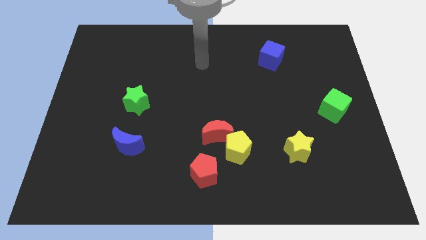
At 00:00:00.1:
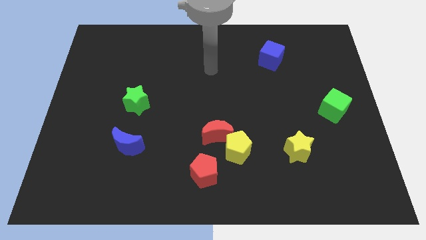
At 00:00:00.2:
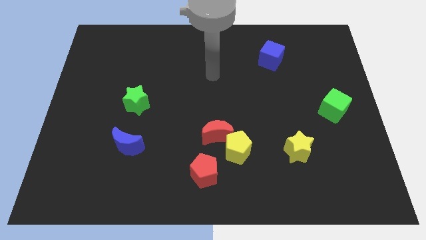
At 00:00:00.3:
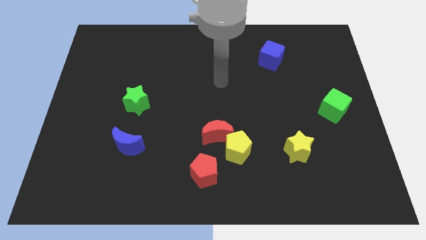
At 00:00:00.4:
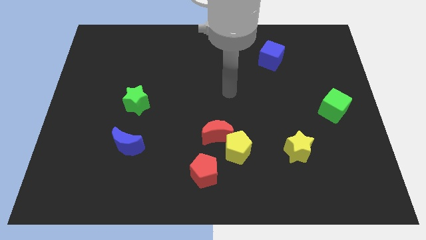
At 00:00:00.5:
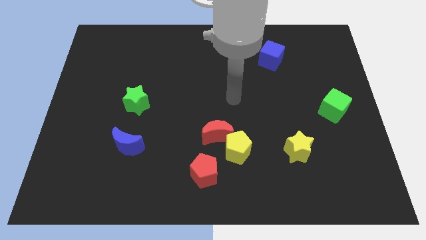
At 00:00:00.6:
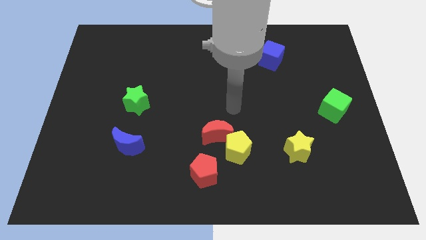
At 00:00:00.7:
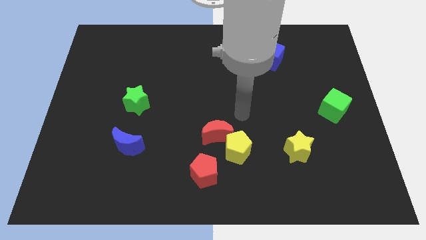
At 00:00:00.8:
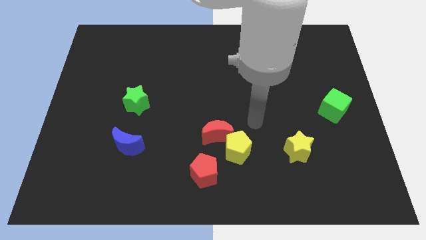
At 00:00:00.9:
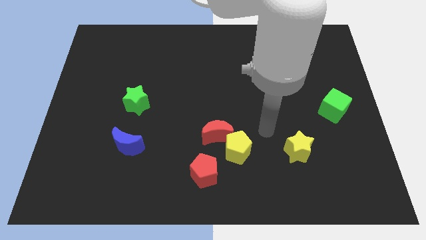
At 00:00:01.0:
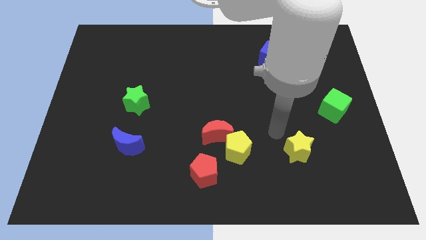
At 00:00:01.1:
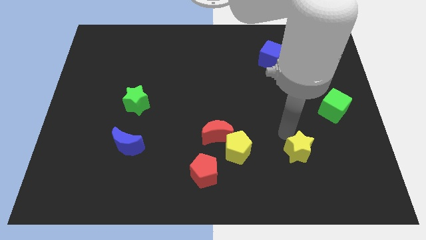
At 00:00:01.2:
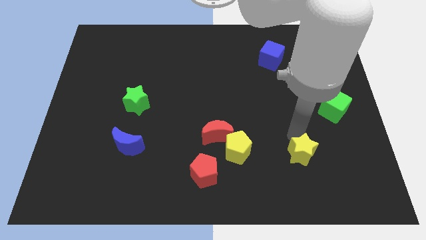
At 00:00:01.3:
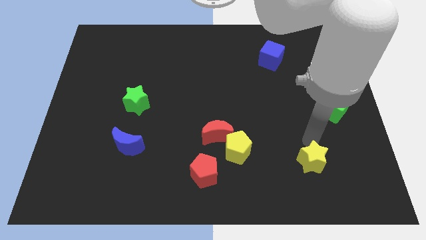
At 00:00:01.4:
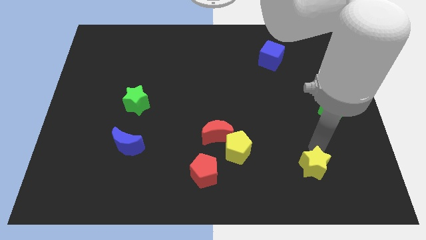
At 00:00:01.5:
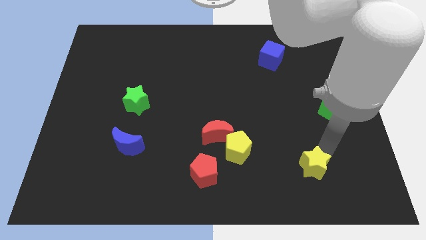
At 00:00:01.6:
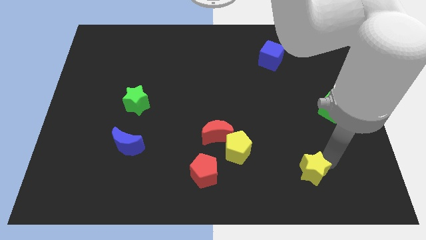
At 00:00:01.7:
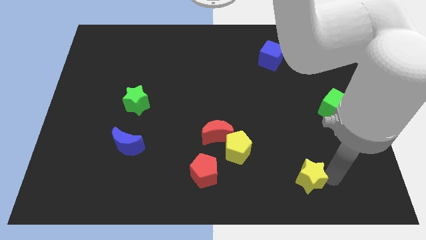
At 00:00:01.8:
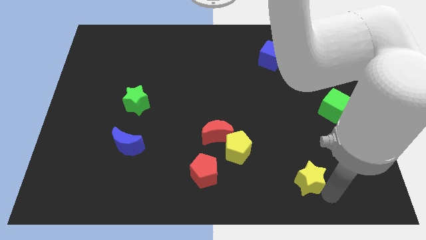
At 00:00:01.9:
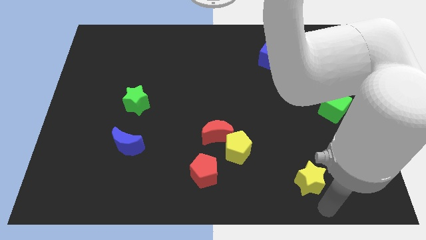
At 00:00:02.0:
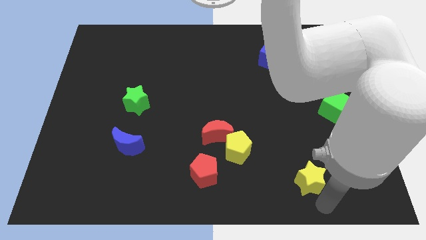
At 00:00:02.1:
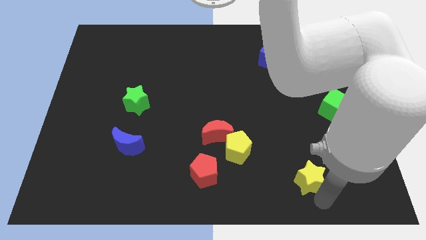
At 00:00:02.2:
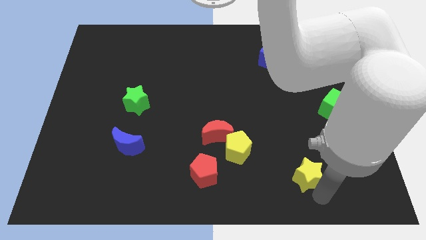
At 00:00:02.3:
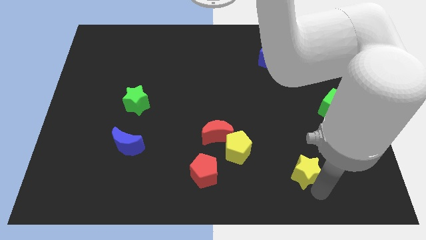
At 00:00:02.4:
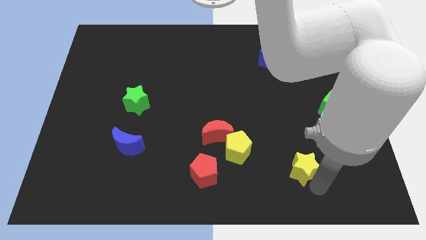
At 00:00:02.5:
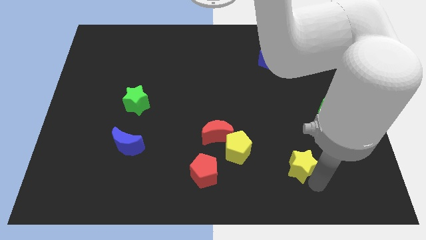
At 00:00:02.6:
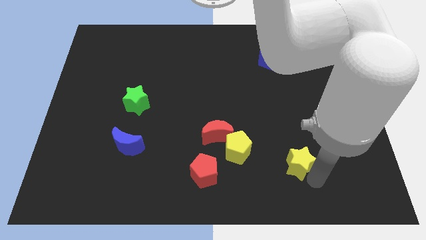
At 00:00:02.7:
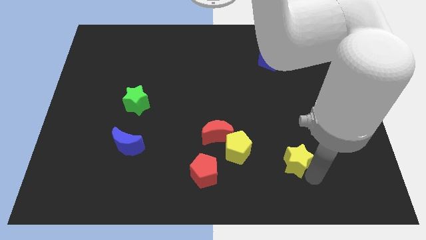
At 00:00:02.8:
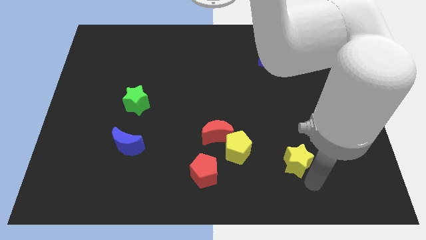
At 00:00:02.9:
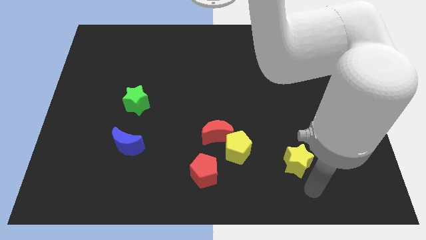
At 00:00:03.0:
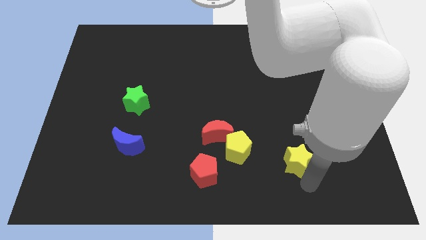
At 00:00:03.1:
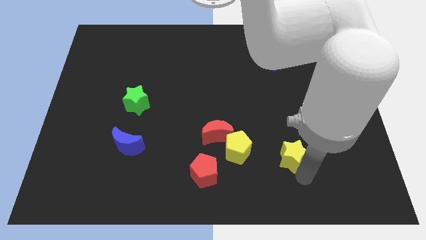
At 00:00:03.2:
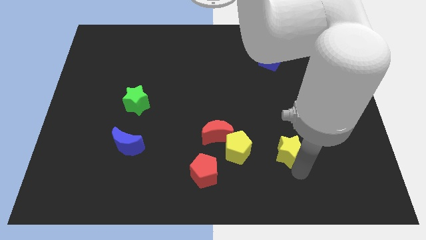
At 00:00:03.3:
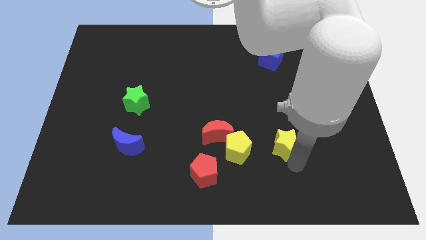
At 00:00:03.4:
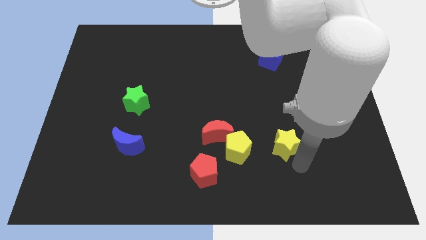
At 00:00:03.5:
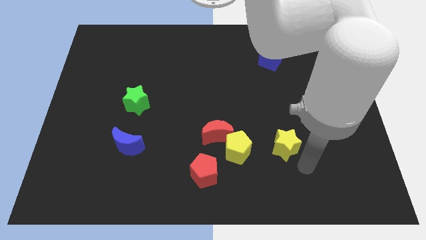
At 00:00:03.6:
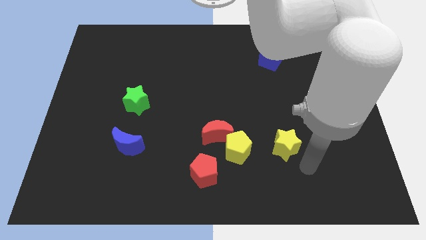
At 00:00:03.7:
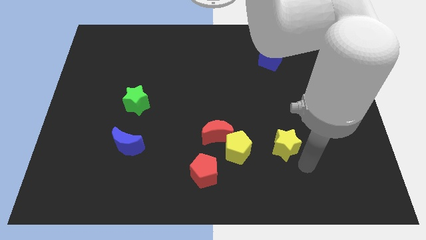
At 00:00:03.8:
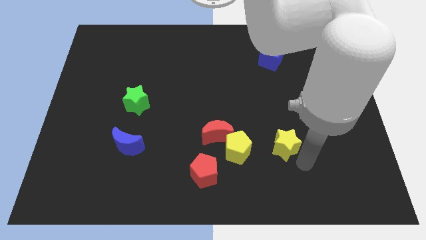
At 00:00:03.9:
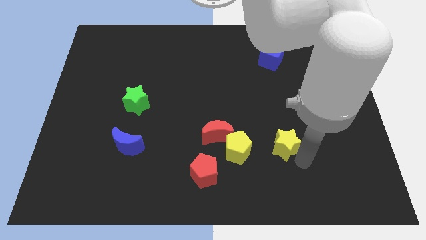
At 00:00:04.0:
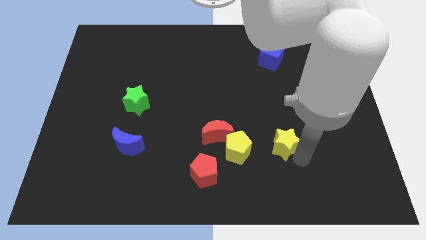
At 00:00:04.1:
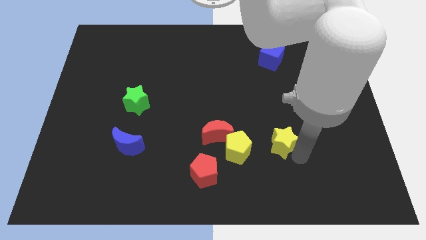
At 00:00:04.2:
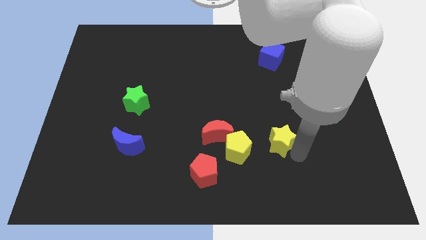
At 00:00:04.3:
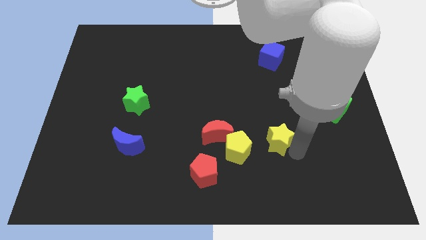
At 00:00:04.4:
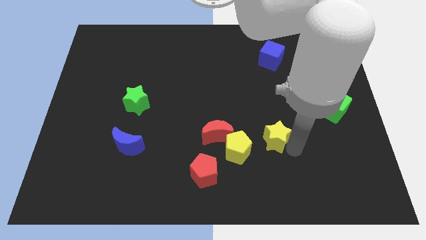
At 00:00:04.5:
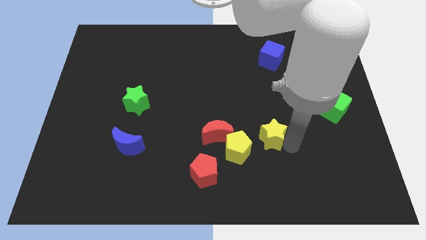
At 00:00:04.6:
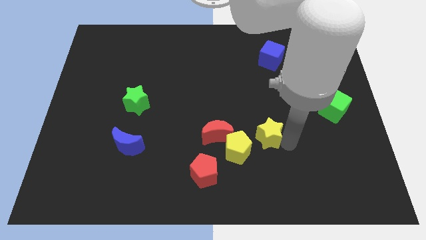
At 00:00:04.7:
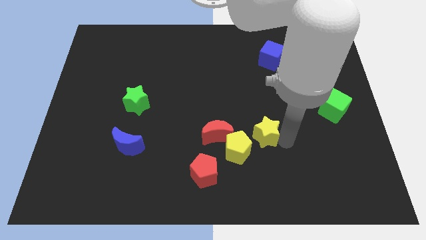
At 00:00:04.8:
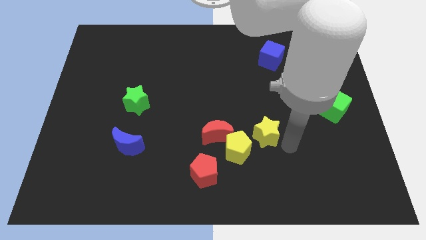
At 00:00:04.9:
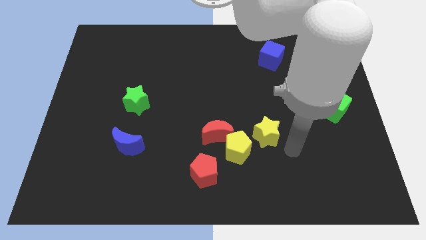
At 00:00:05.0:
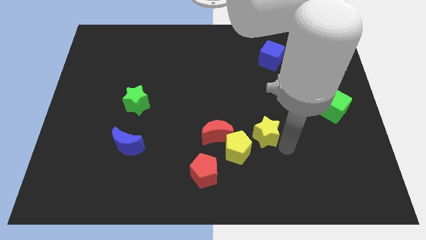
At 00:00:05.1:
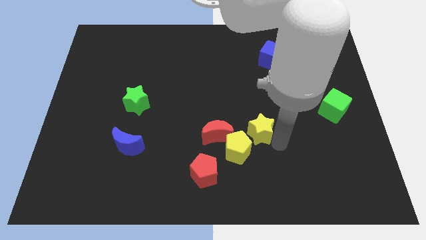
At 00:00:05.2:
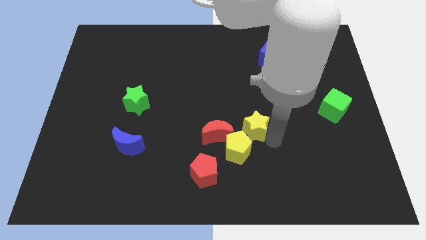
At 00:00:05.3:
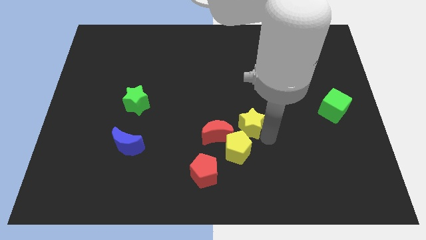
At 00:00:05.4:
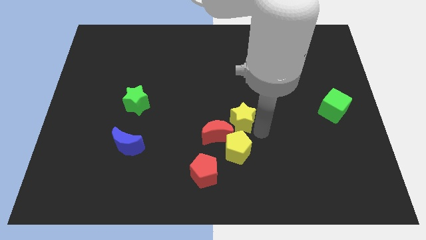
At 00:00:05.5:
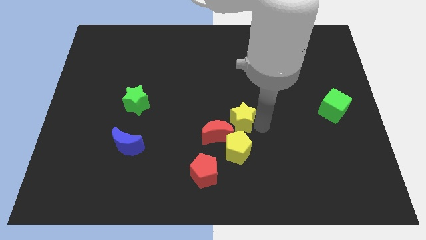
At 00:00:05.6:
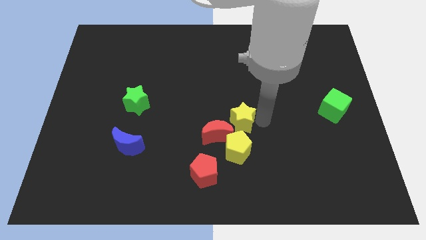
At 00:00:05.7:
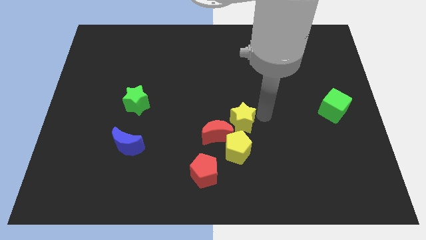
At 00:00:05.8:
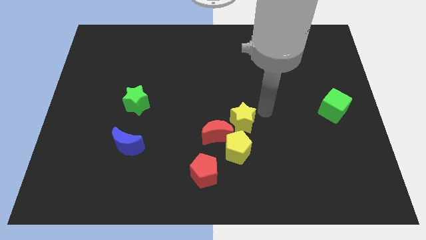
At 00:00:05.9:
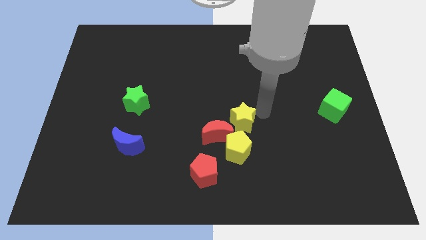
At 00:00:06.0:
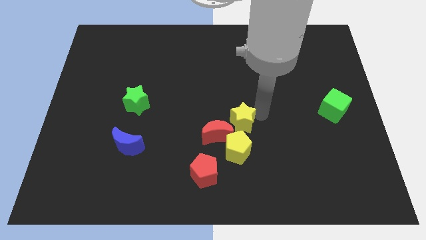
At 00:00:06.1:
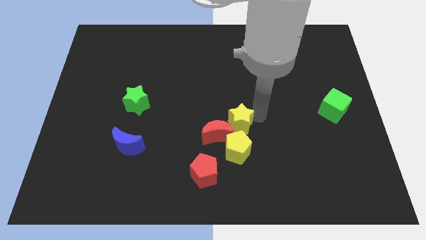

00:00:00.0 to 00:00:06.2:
put the yellow star to the red moon

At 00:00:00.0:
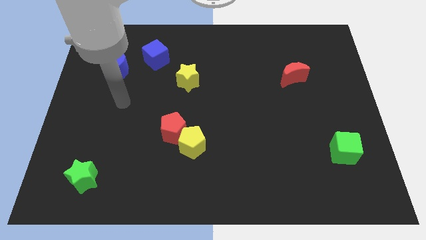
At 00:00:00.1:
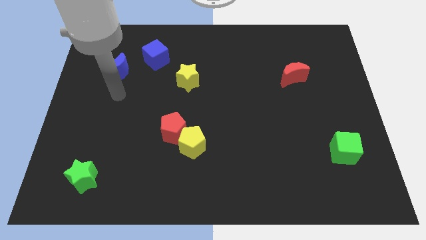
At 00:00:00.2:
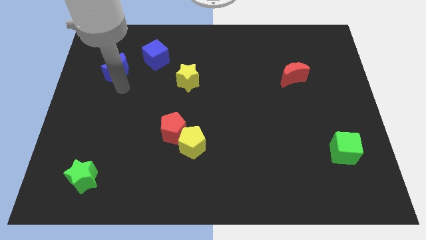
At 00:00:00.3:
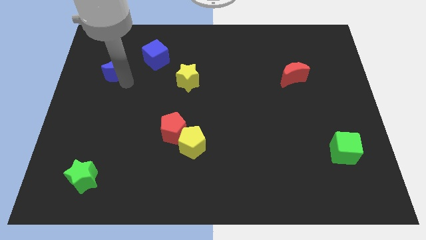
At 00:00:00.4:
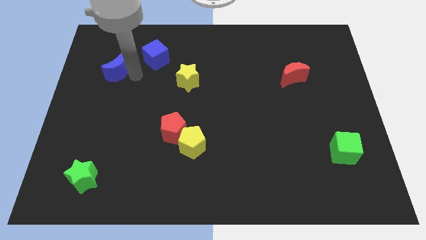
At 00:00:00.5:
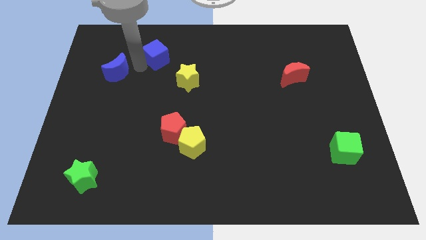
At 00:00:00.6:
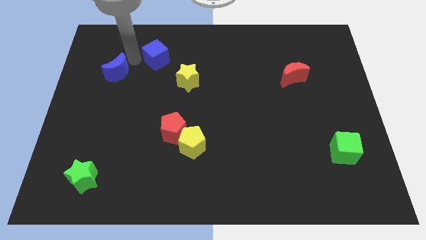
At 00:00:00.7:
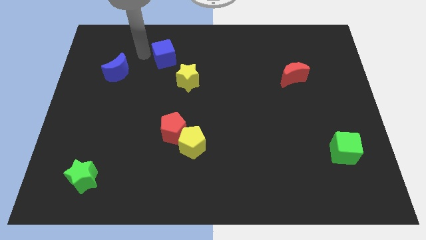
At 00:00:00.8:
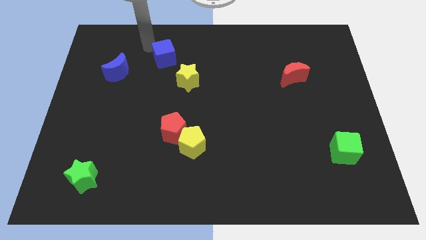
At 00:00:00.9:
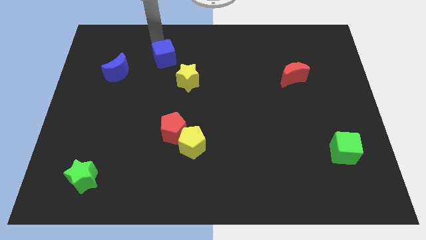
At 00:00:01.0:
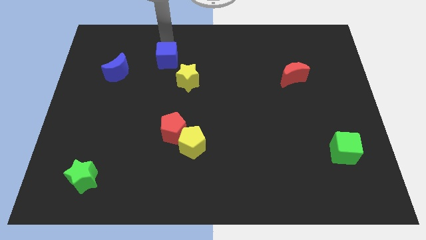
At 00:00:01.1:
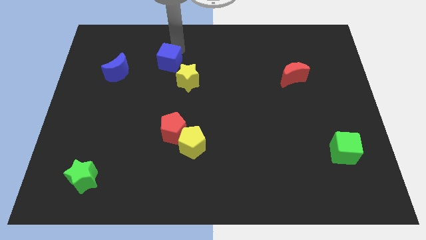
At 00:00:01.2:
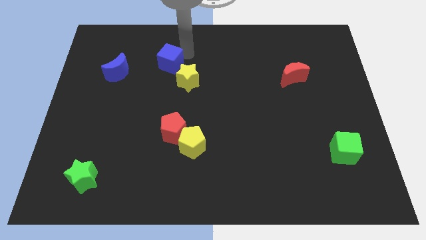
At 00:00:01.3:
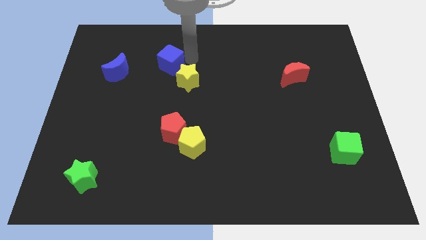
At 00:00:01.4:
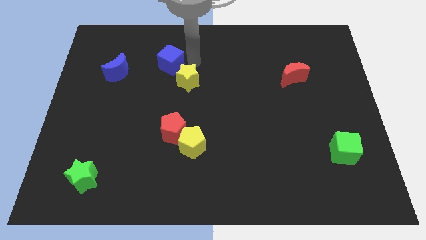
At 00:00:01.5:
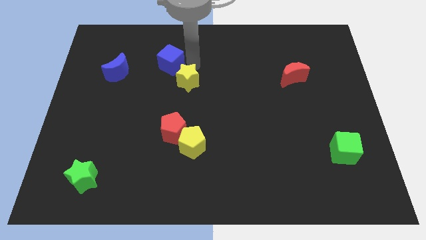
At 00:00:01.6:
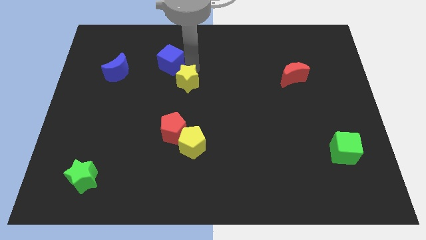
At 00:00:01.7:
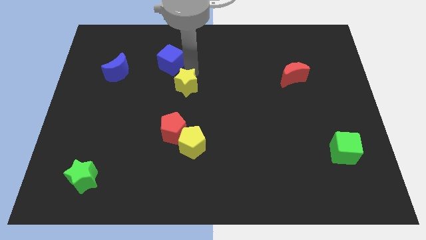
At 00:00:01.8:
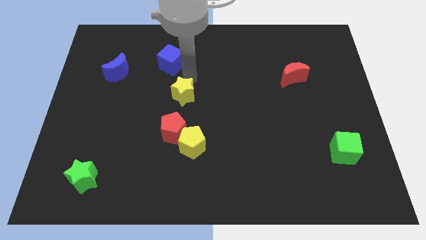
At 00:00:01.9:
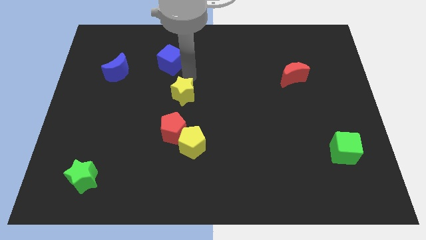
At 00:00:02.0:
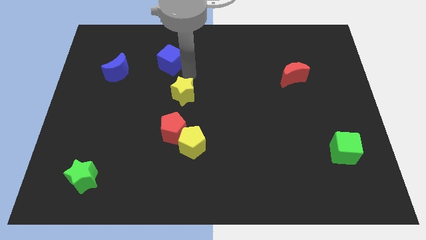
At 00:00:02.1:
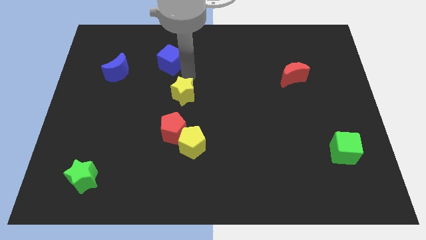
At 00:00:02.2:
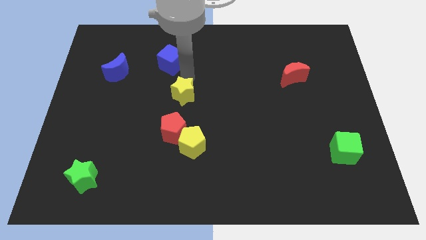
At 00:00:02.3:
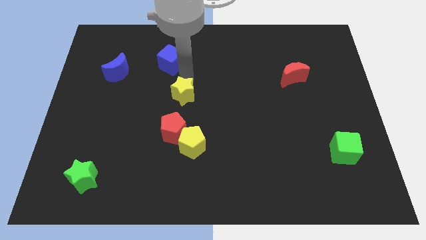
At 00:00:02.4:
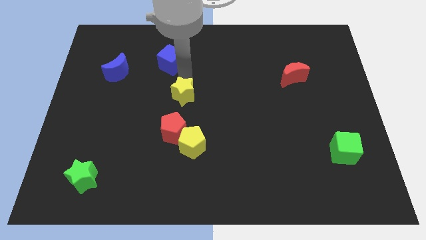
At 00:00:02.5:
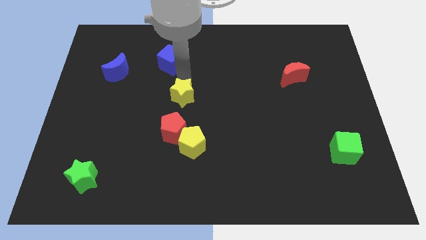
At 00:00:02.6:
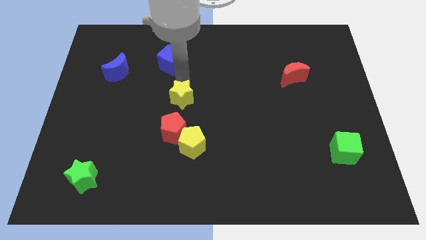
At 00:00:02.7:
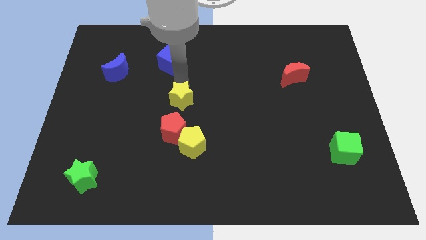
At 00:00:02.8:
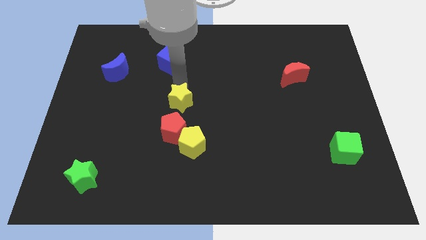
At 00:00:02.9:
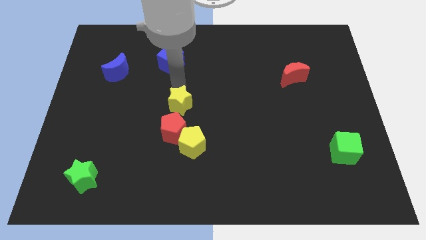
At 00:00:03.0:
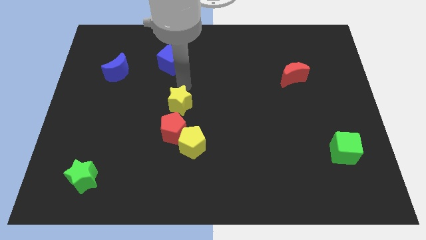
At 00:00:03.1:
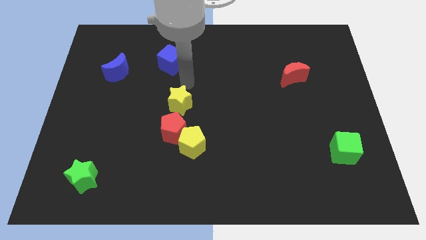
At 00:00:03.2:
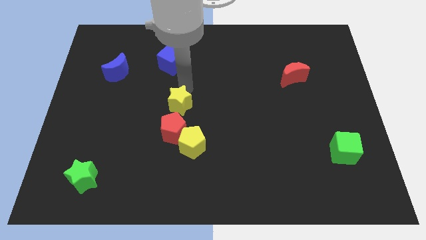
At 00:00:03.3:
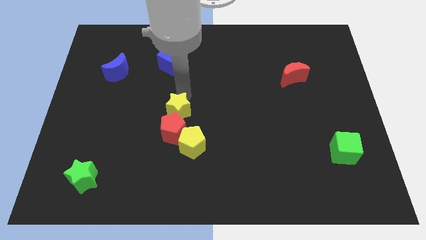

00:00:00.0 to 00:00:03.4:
slide the yellow star next to the red pentagon
